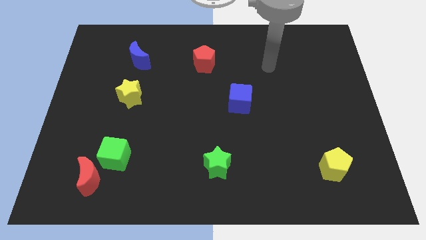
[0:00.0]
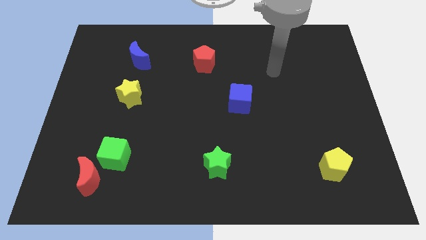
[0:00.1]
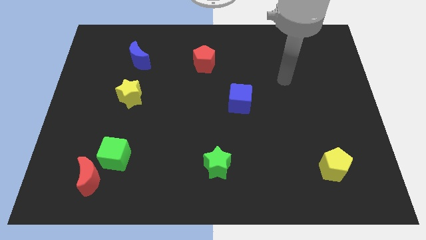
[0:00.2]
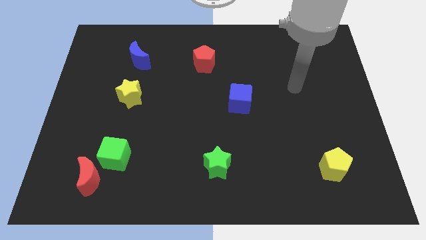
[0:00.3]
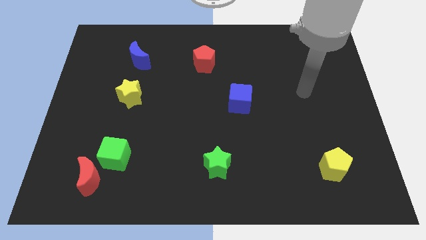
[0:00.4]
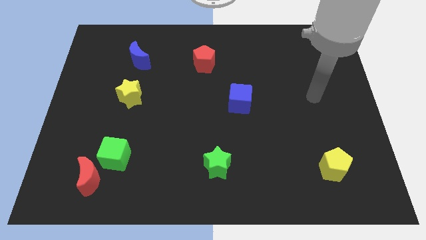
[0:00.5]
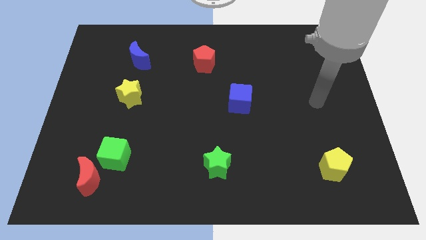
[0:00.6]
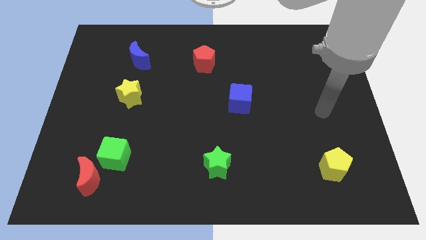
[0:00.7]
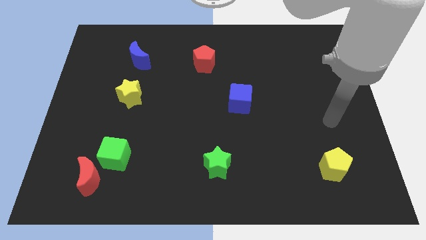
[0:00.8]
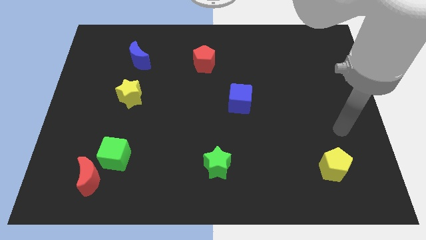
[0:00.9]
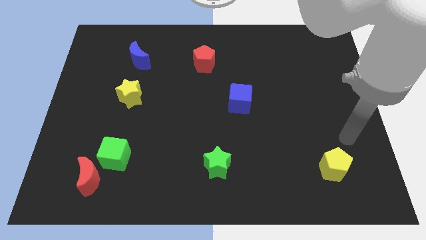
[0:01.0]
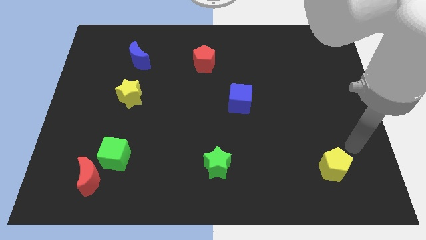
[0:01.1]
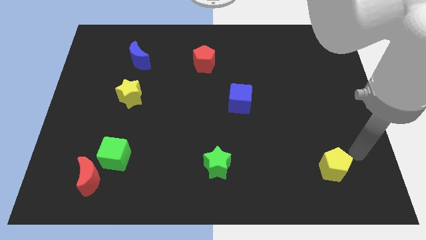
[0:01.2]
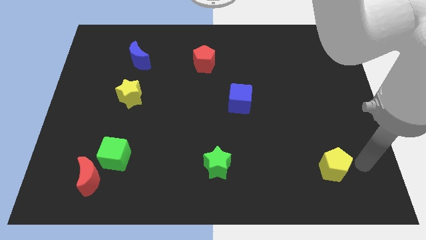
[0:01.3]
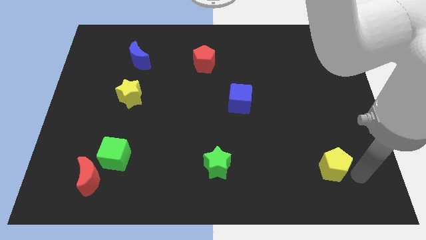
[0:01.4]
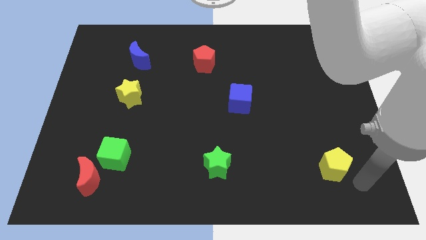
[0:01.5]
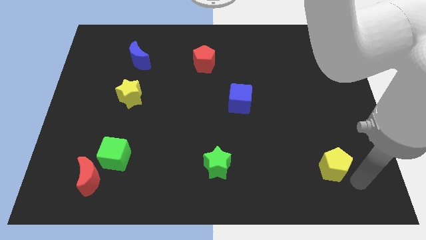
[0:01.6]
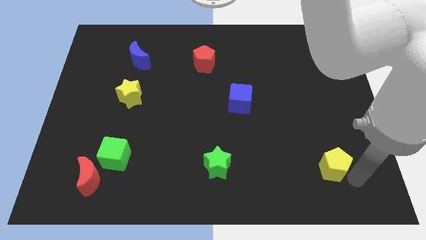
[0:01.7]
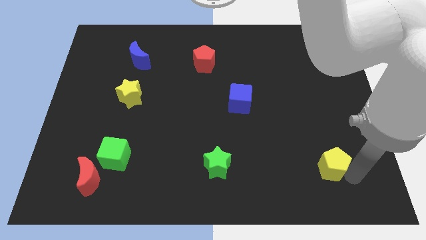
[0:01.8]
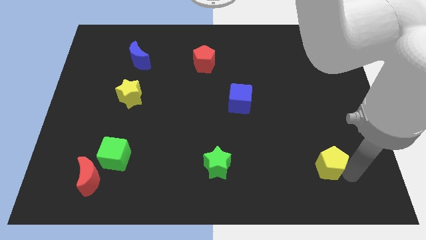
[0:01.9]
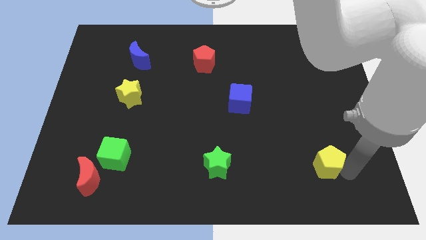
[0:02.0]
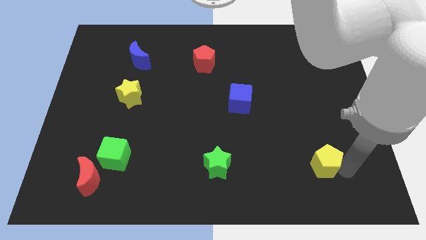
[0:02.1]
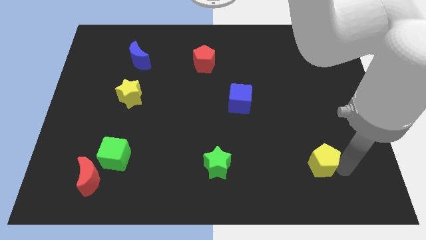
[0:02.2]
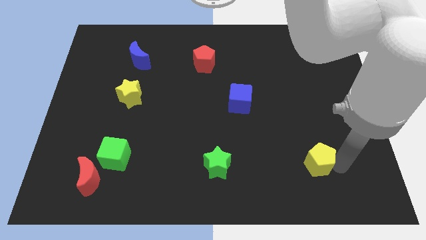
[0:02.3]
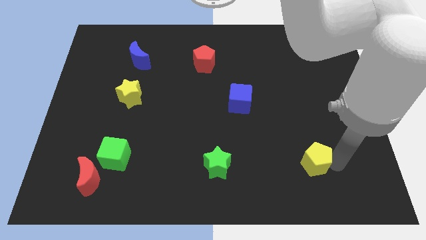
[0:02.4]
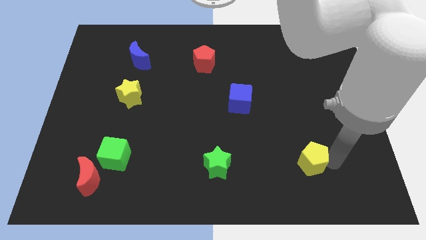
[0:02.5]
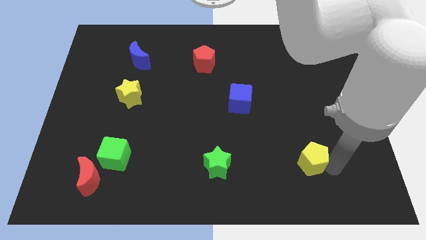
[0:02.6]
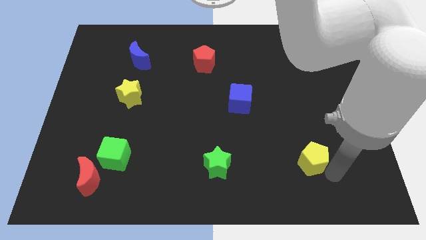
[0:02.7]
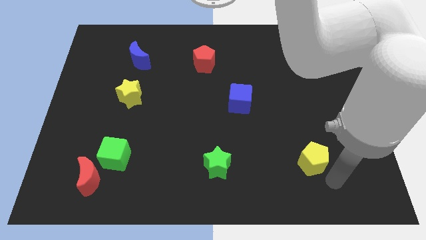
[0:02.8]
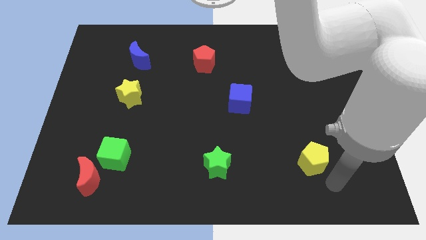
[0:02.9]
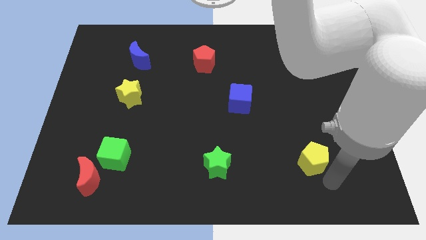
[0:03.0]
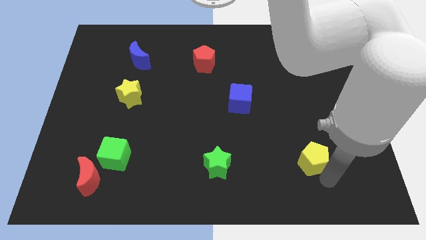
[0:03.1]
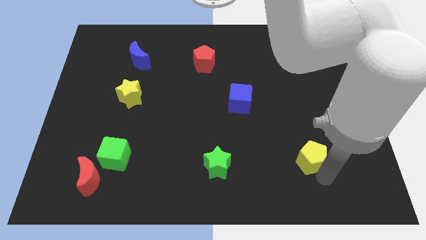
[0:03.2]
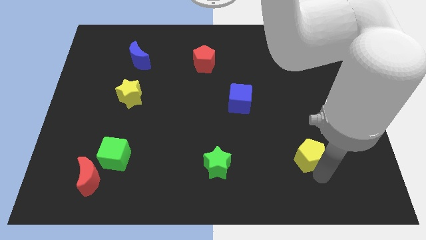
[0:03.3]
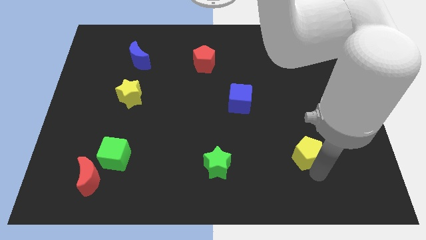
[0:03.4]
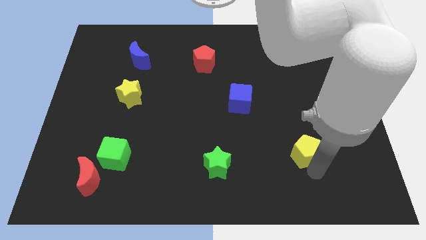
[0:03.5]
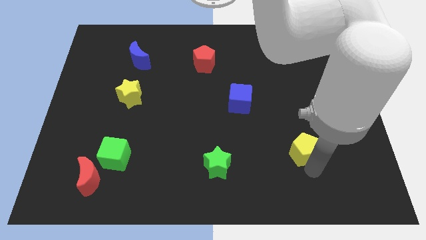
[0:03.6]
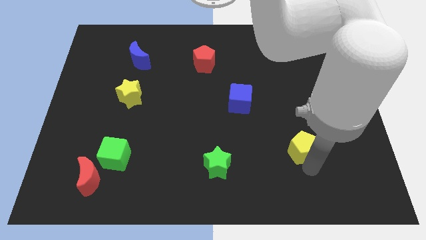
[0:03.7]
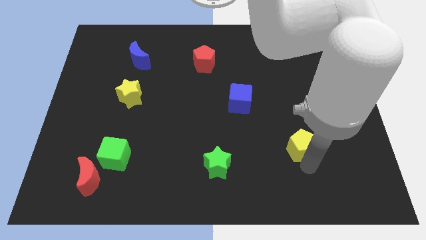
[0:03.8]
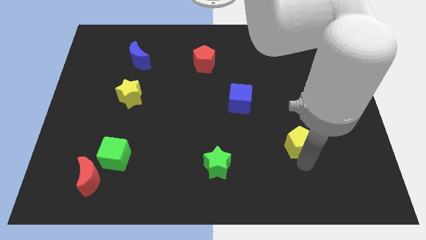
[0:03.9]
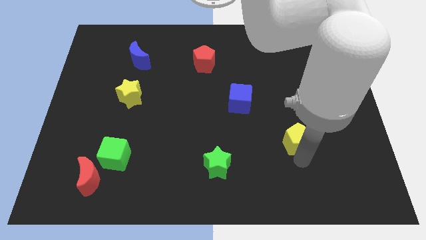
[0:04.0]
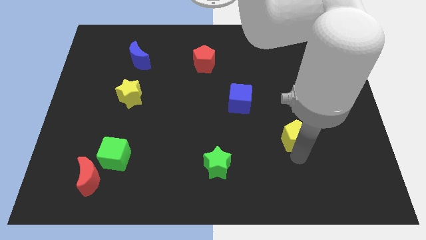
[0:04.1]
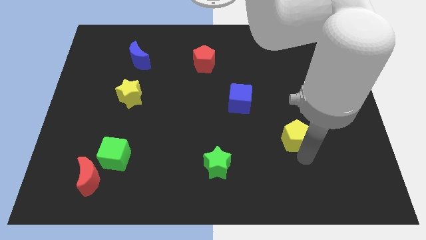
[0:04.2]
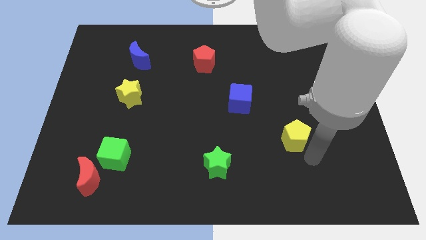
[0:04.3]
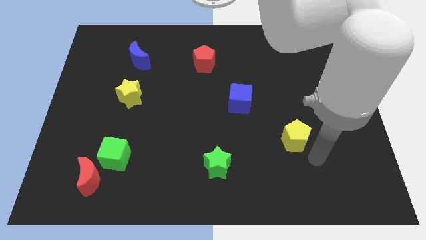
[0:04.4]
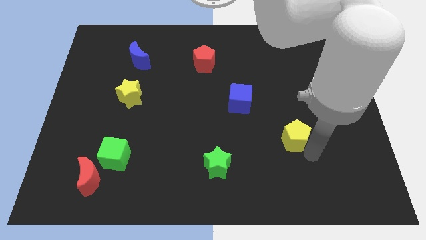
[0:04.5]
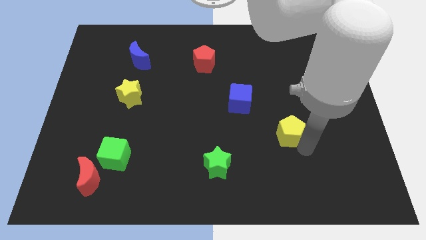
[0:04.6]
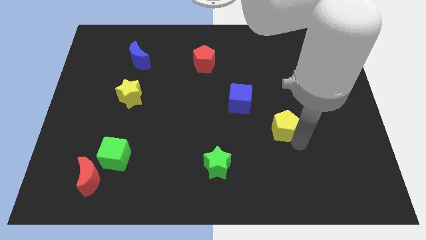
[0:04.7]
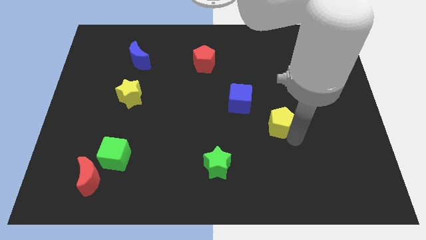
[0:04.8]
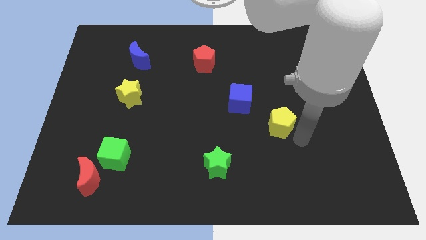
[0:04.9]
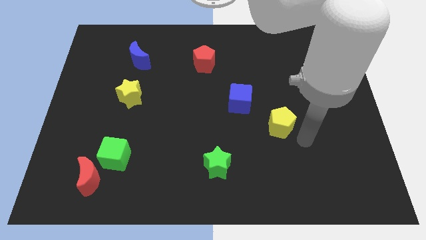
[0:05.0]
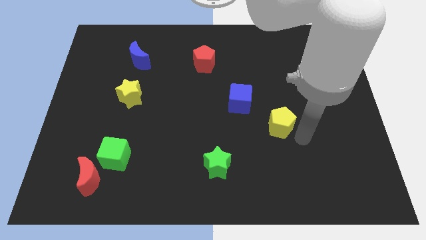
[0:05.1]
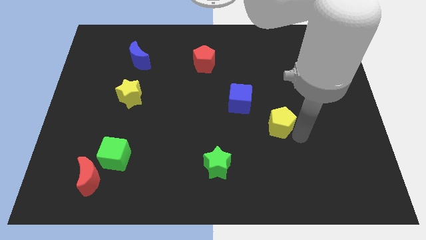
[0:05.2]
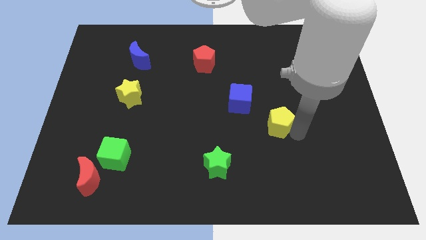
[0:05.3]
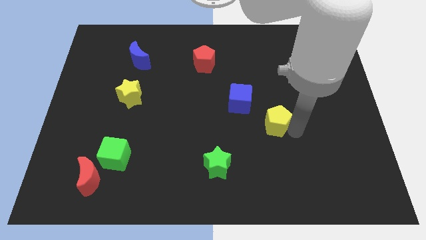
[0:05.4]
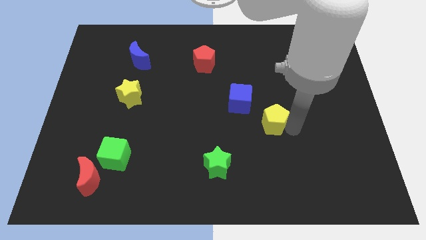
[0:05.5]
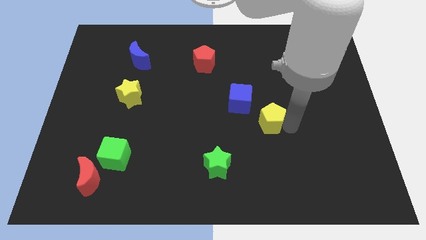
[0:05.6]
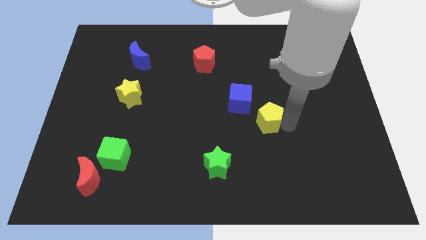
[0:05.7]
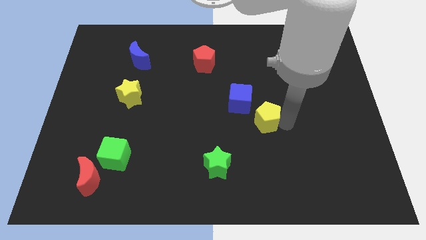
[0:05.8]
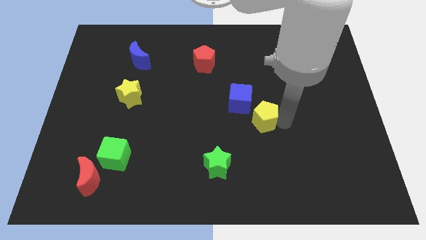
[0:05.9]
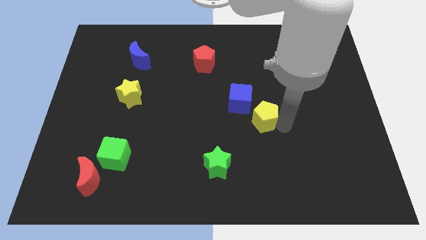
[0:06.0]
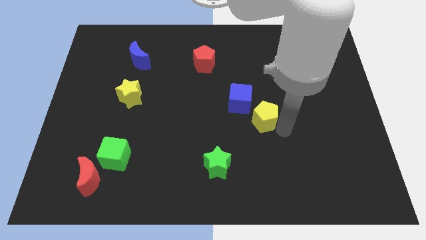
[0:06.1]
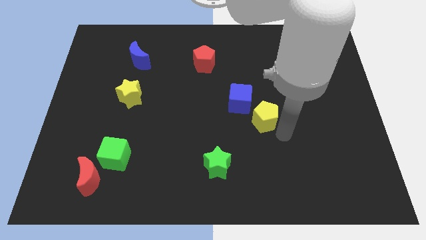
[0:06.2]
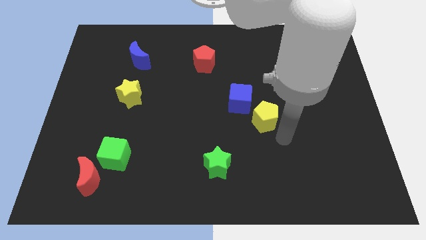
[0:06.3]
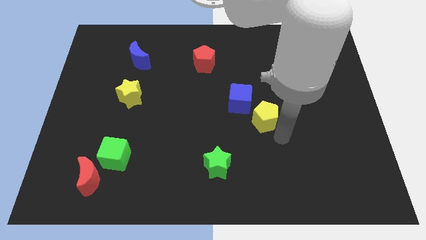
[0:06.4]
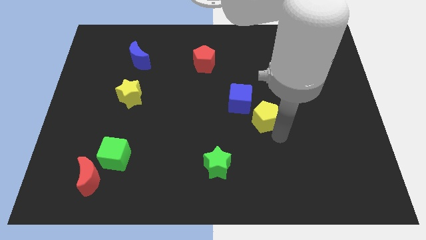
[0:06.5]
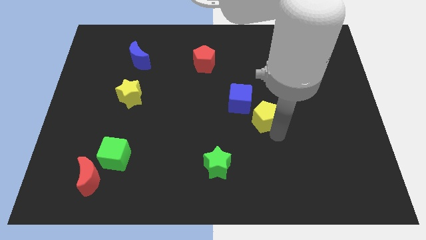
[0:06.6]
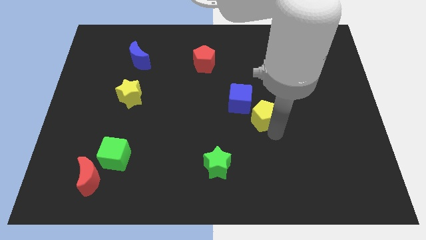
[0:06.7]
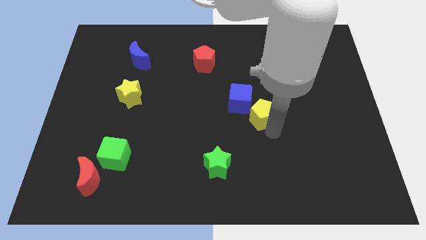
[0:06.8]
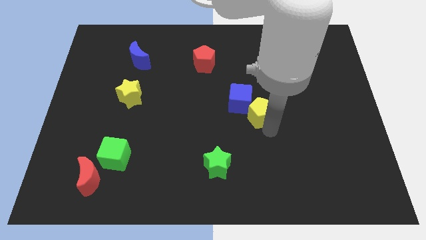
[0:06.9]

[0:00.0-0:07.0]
move the yellow pentagon next to the blue cube
